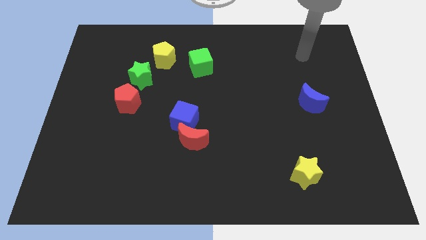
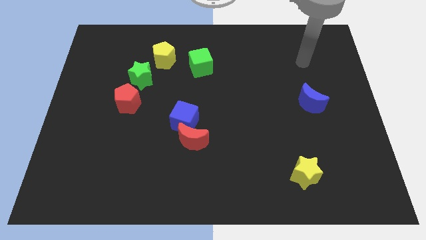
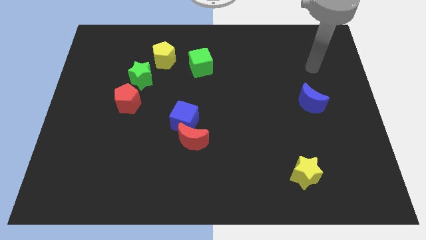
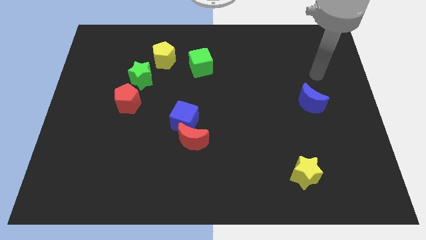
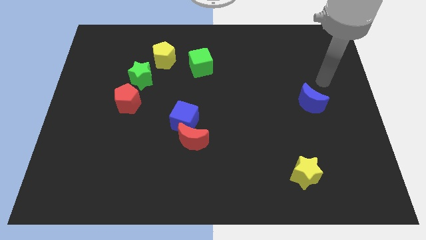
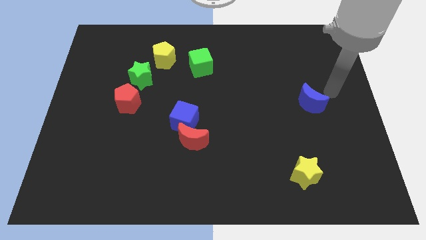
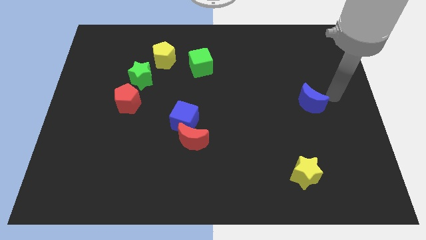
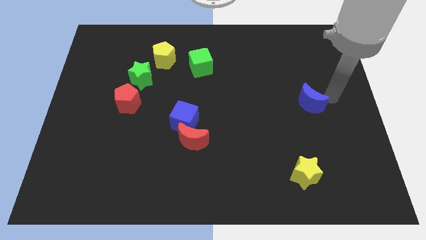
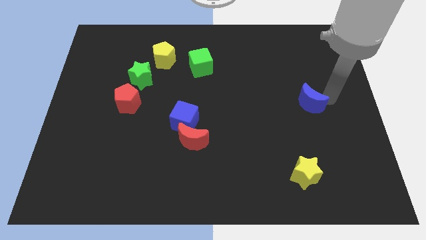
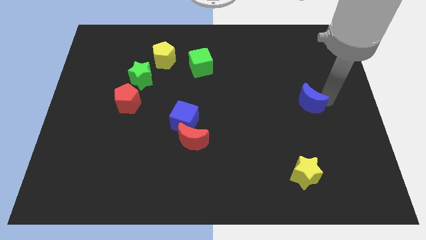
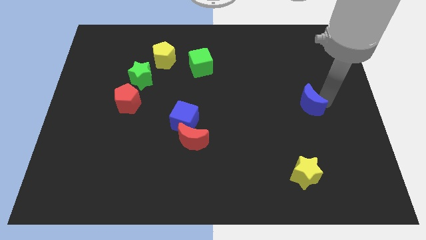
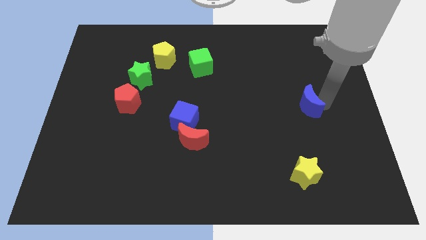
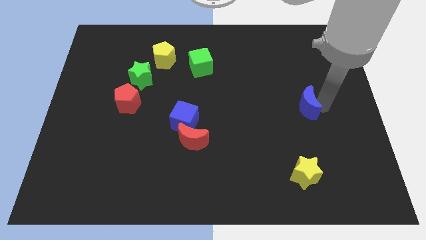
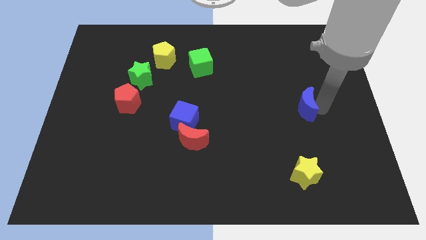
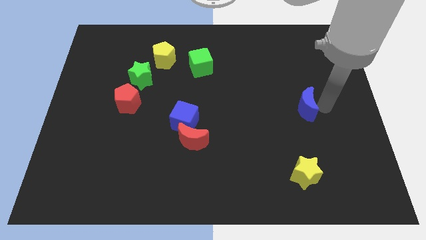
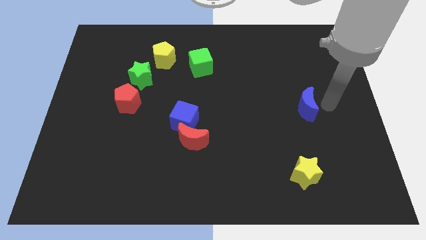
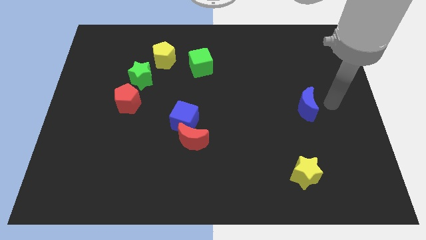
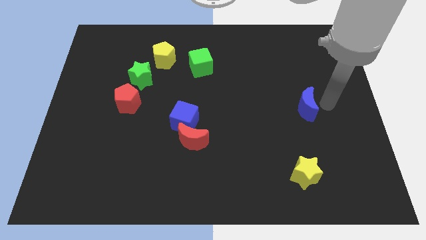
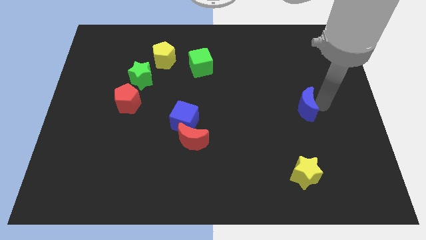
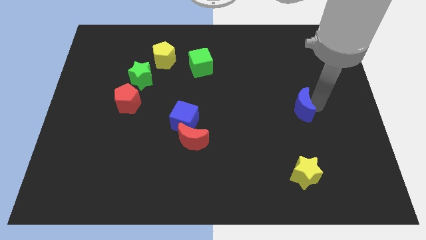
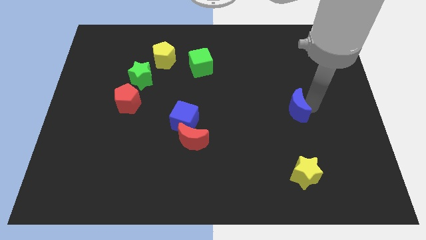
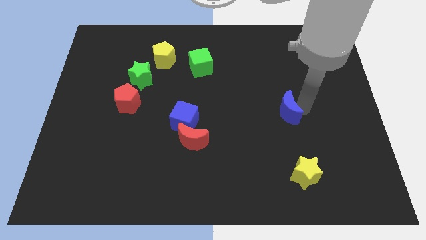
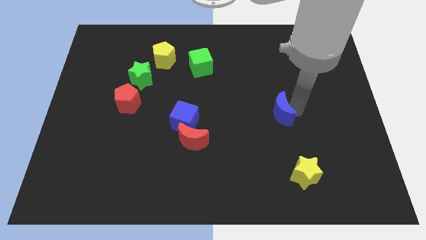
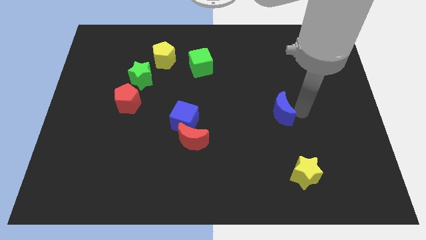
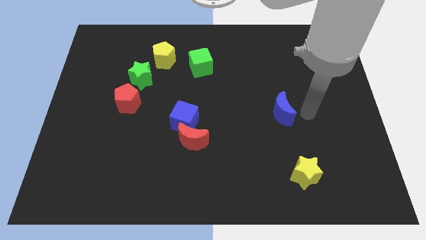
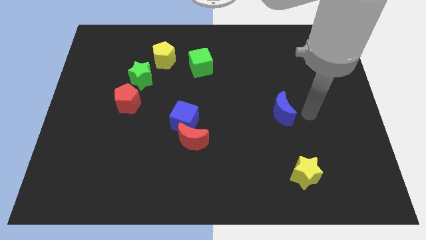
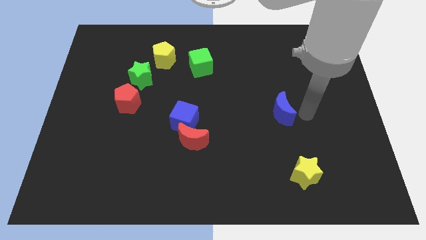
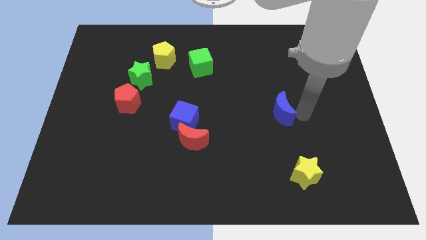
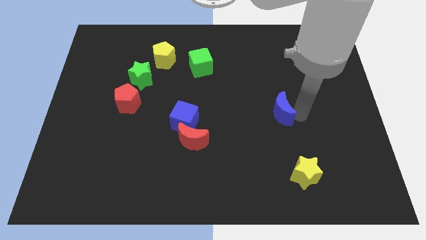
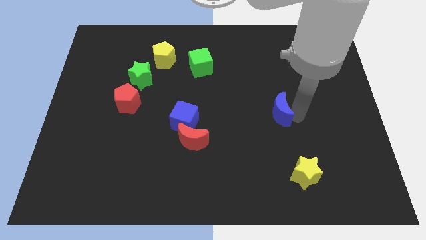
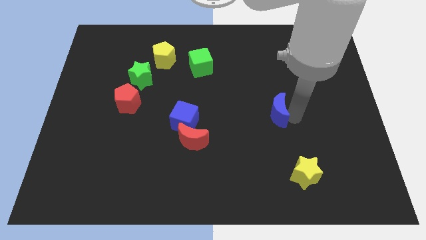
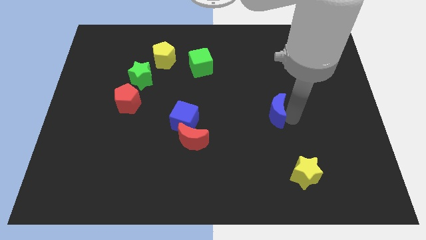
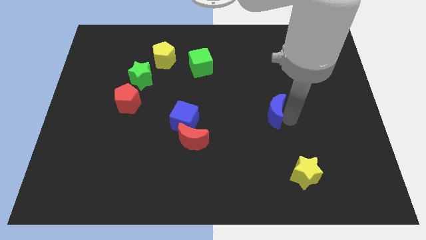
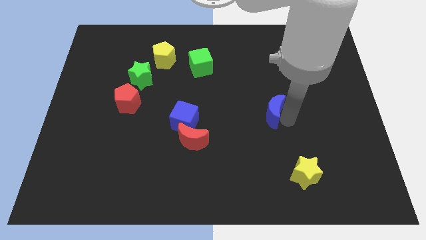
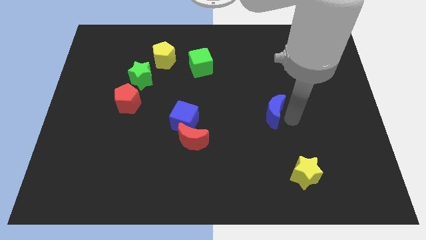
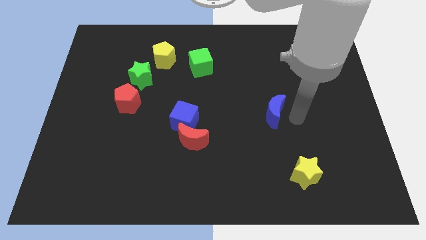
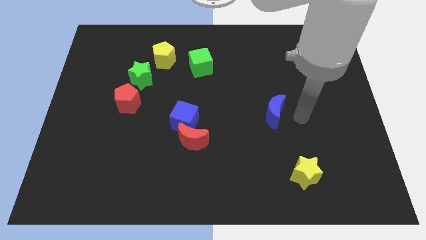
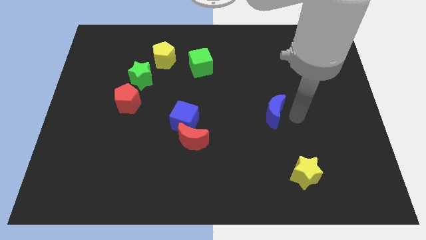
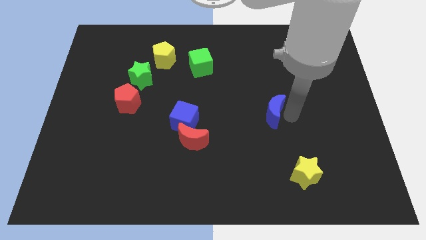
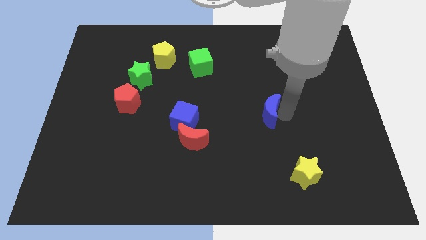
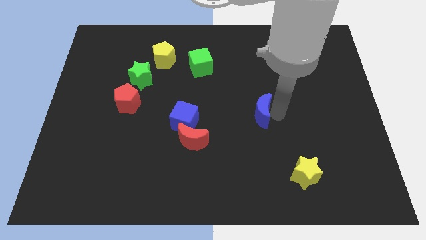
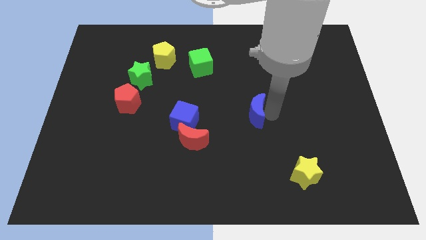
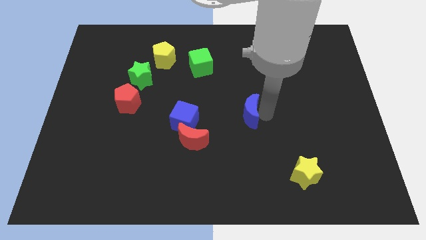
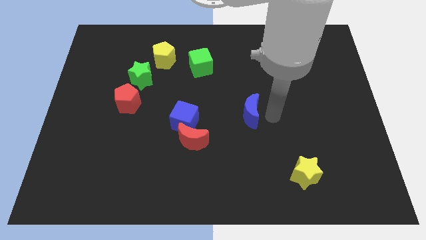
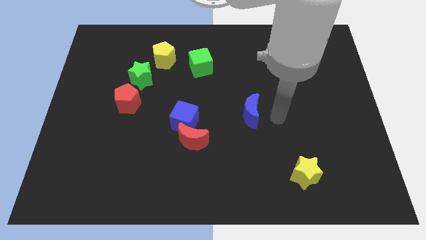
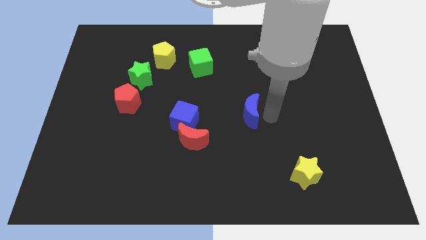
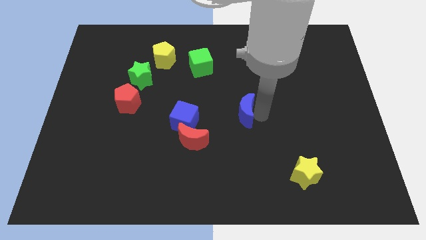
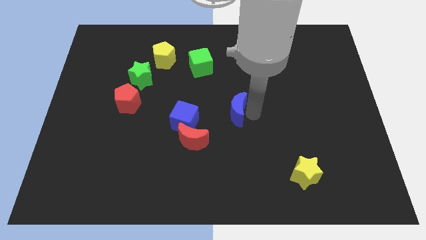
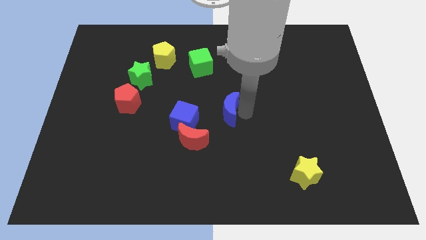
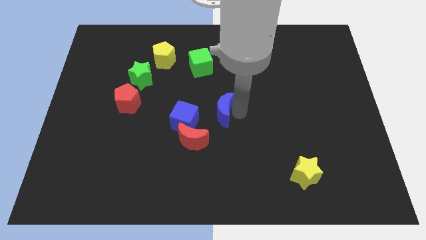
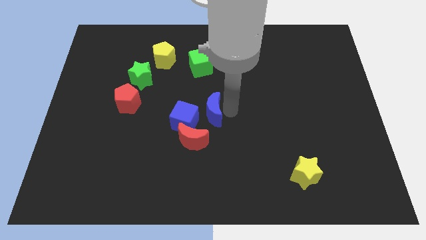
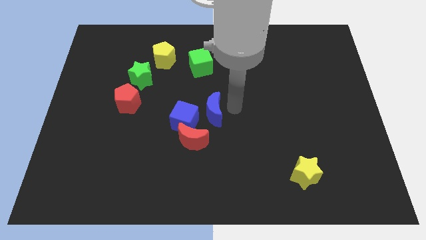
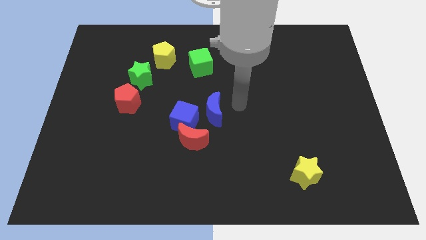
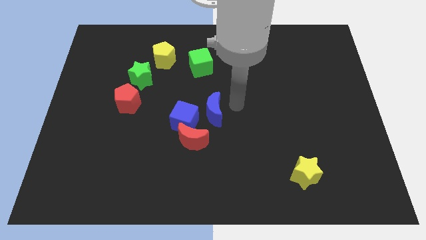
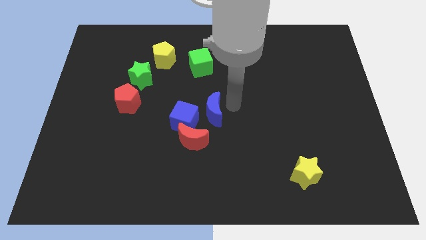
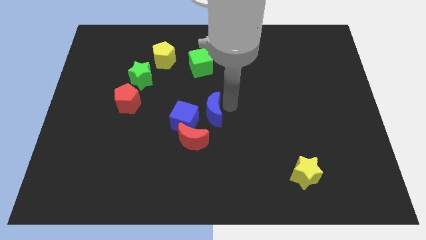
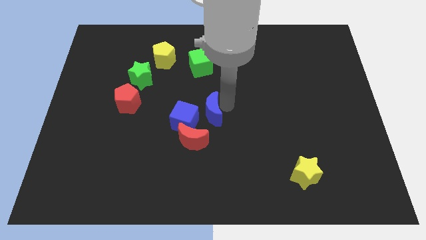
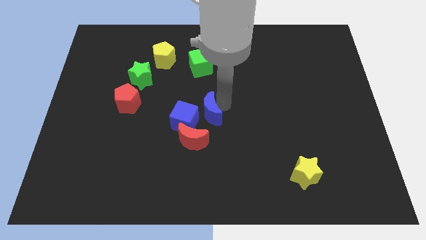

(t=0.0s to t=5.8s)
put the blue moon towards the blue cube

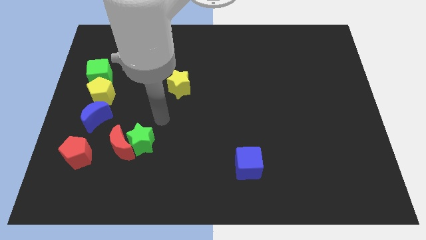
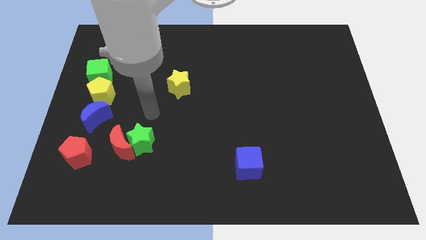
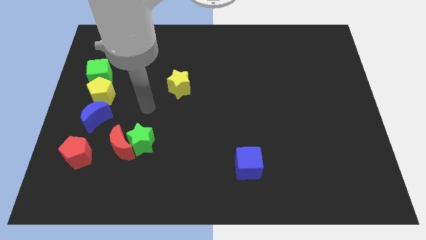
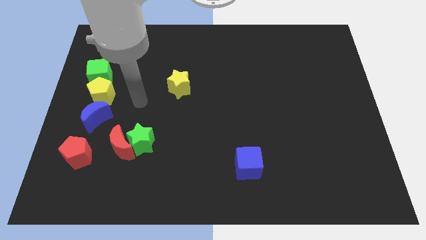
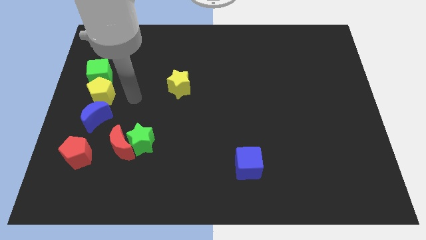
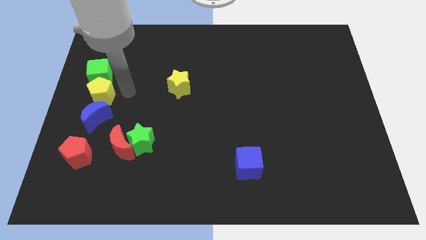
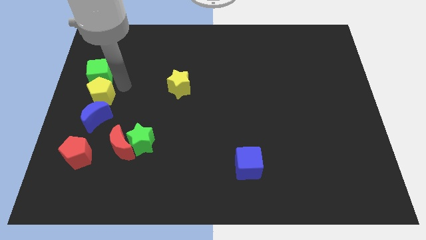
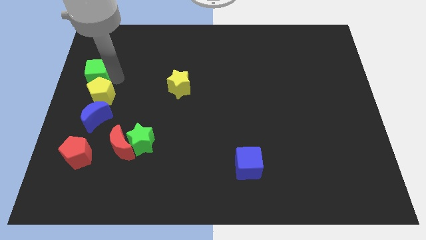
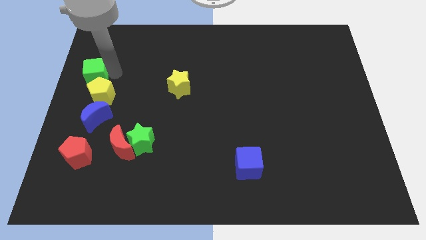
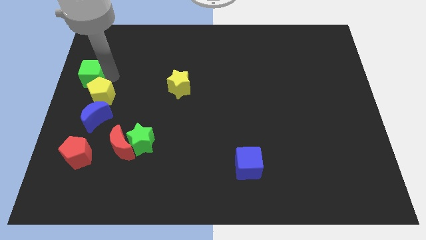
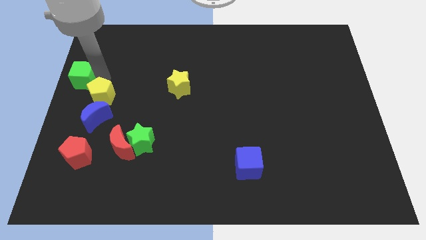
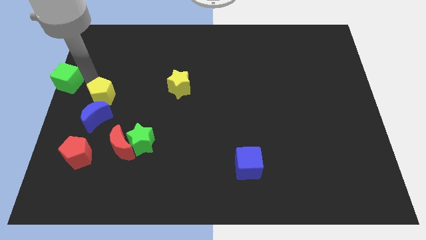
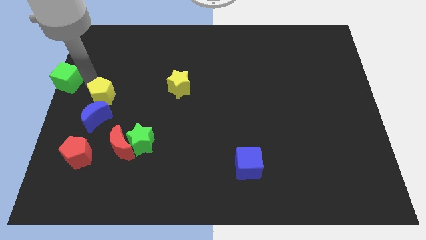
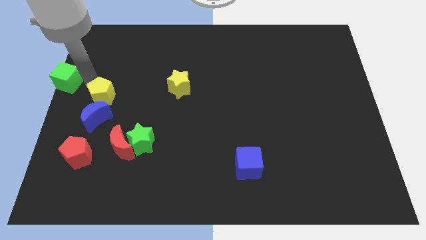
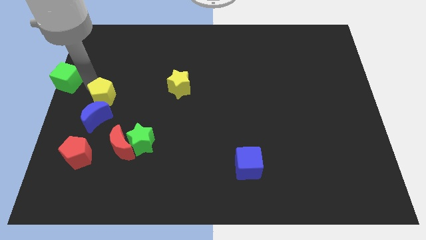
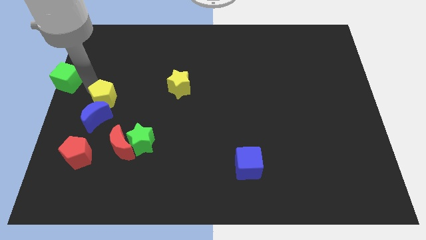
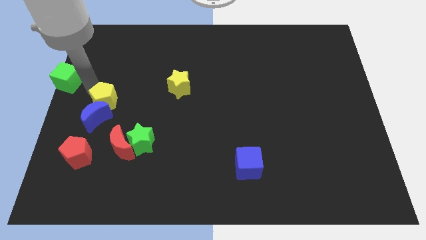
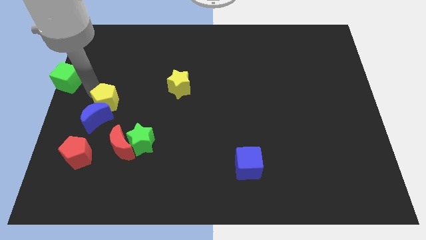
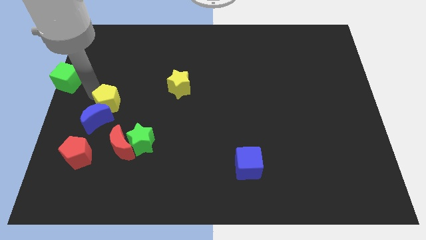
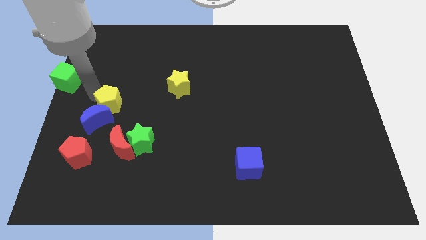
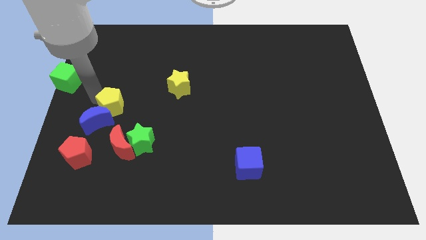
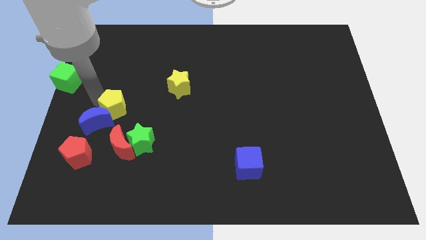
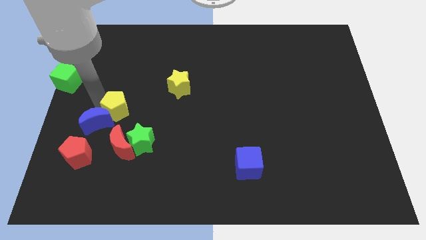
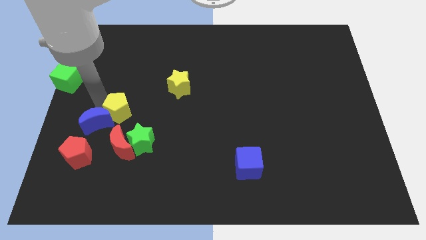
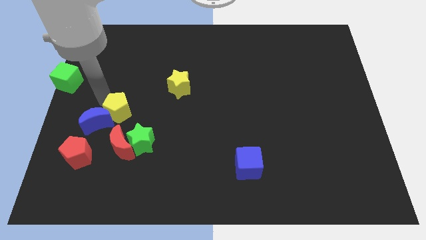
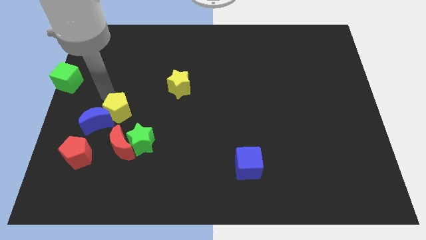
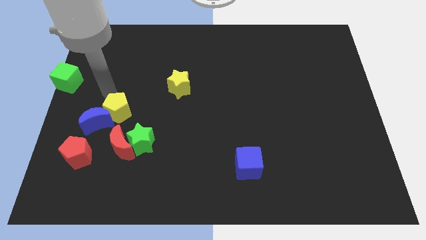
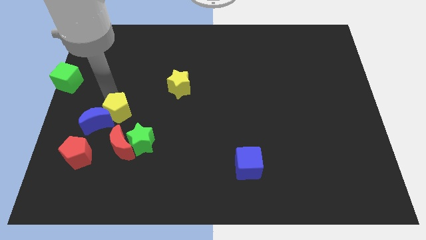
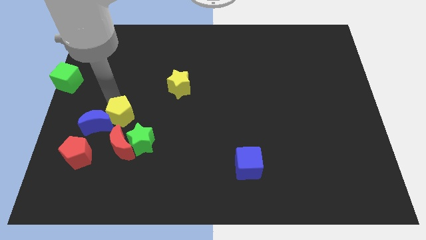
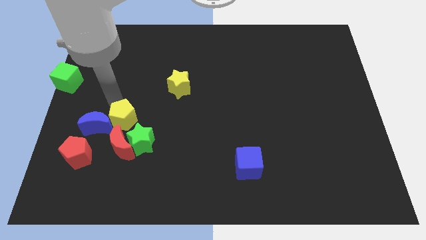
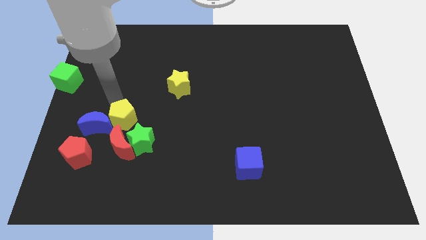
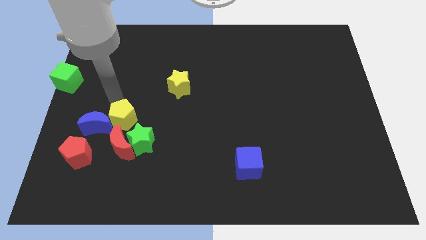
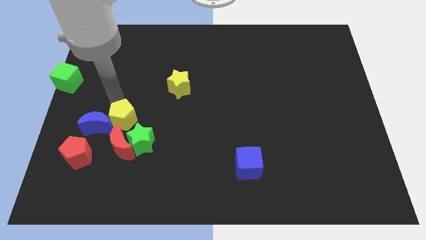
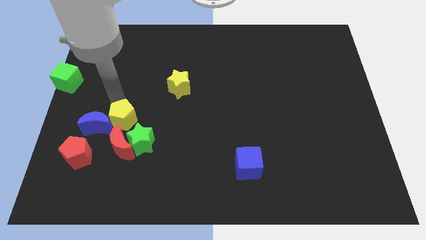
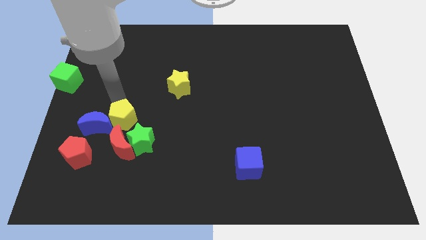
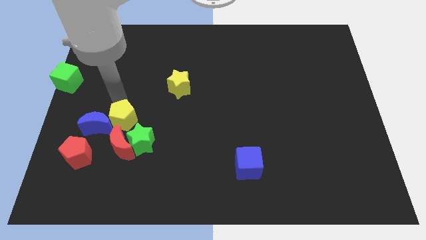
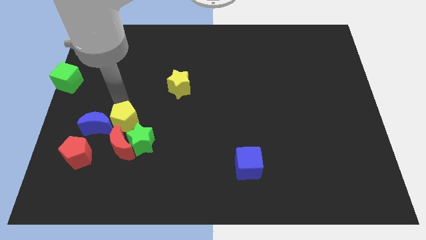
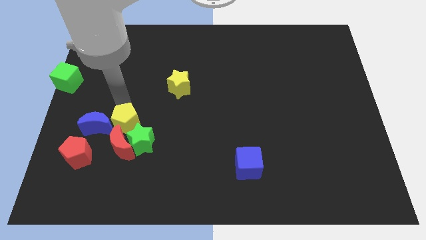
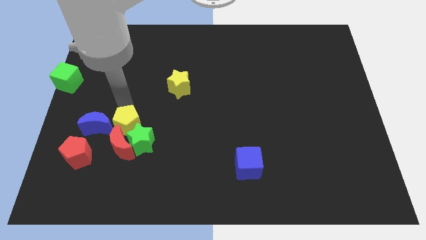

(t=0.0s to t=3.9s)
put the yellow pentagon to the green star
